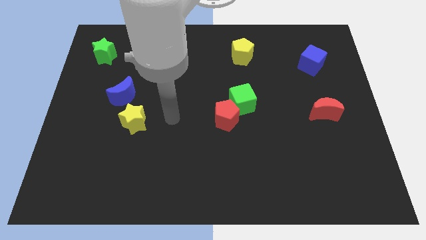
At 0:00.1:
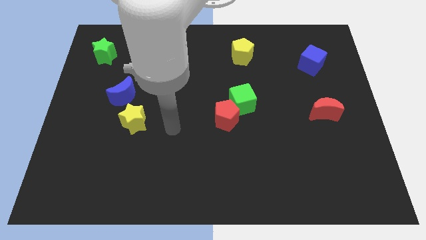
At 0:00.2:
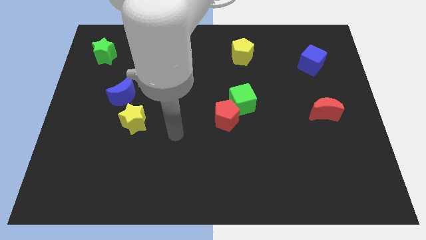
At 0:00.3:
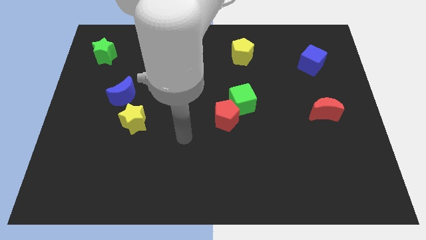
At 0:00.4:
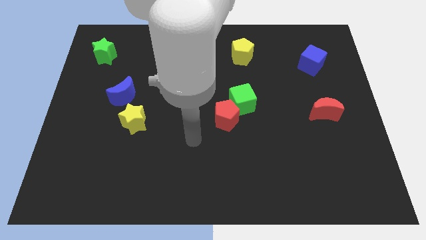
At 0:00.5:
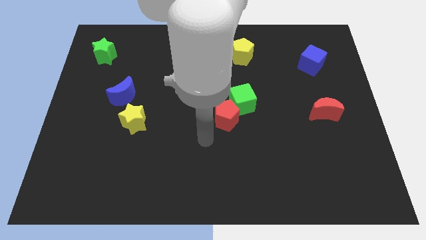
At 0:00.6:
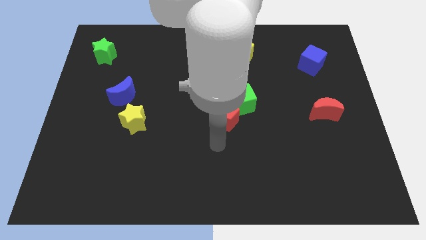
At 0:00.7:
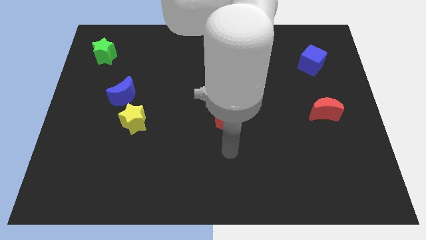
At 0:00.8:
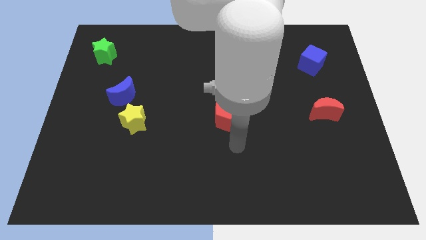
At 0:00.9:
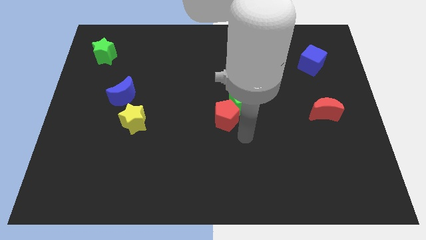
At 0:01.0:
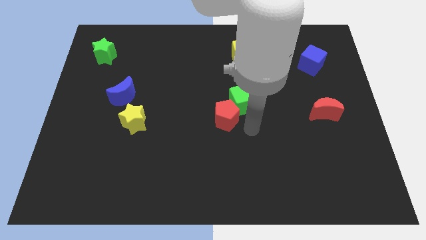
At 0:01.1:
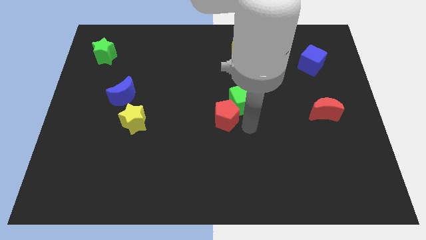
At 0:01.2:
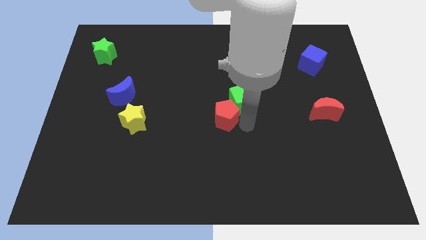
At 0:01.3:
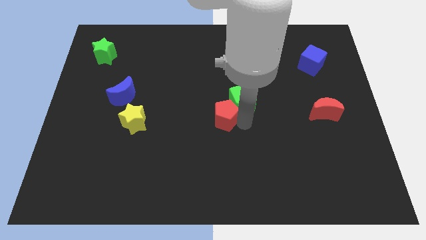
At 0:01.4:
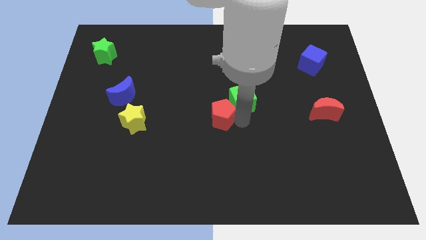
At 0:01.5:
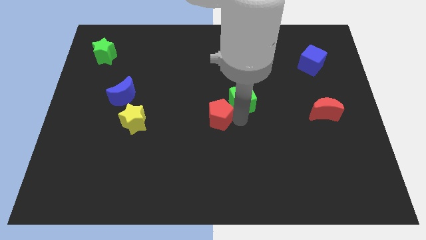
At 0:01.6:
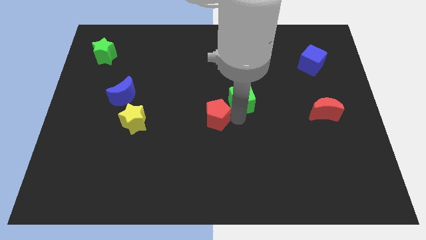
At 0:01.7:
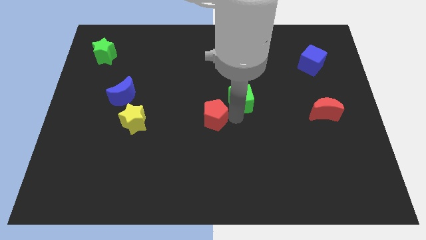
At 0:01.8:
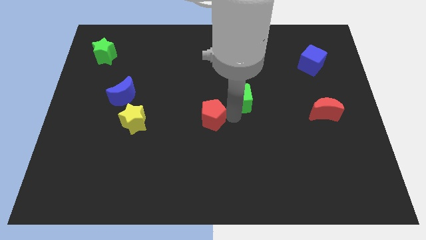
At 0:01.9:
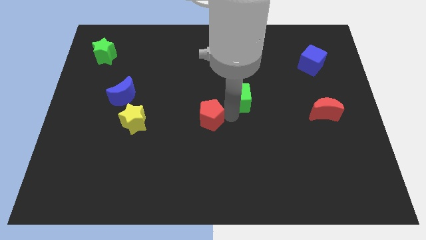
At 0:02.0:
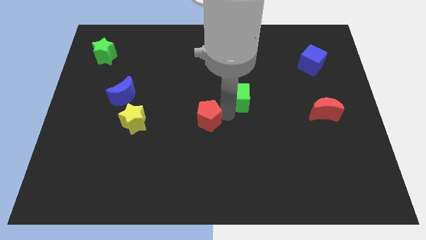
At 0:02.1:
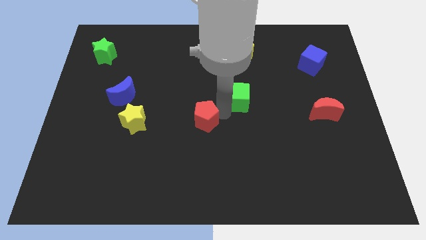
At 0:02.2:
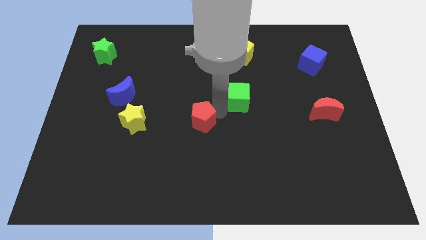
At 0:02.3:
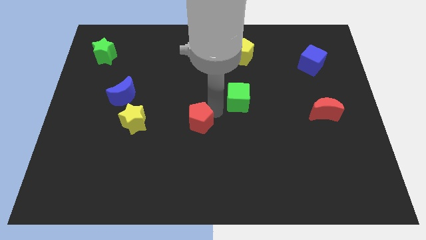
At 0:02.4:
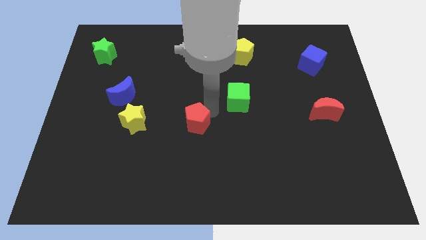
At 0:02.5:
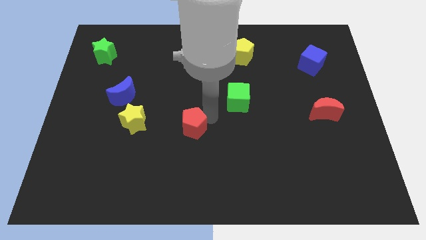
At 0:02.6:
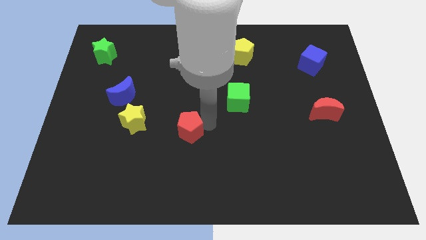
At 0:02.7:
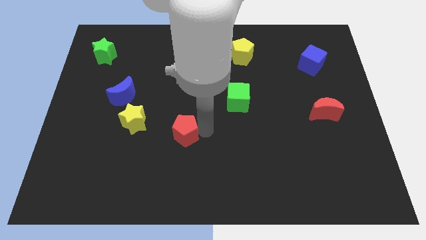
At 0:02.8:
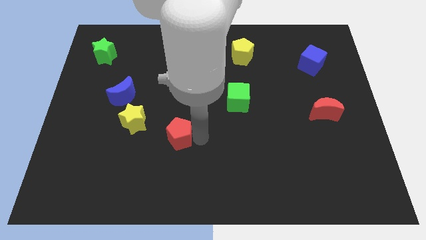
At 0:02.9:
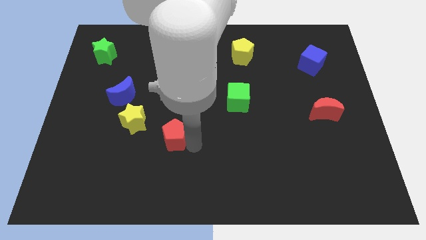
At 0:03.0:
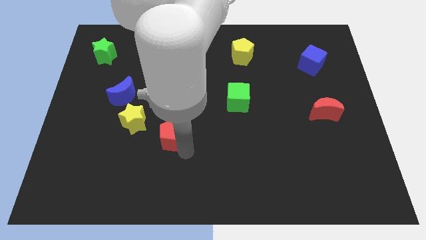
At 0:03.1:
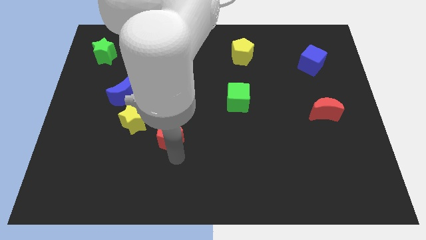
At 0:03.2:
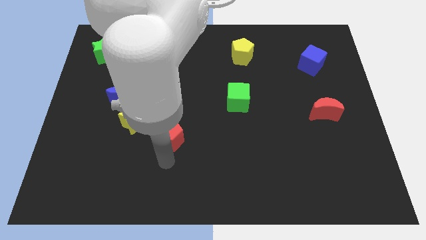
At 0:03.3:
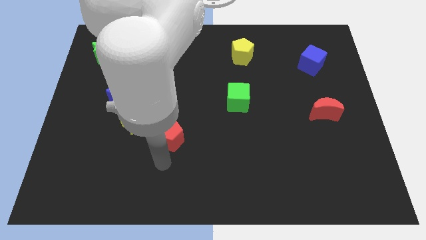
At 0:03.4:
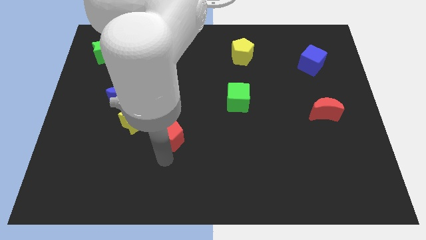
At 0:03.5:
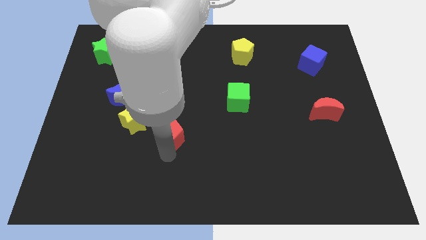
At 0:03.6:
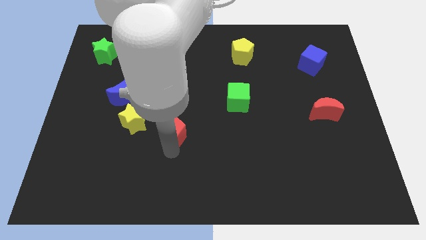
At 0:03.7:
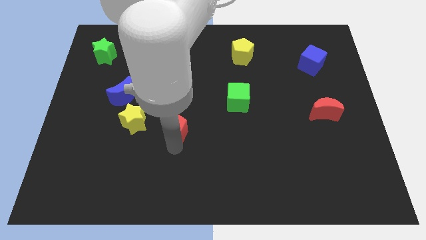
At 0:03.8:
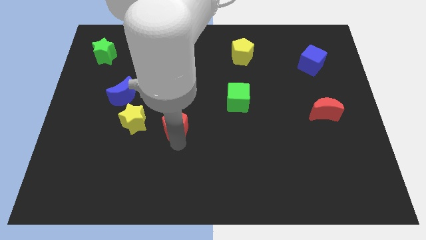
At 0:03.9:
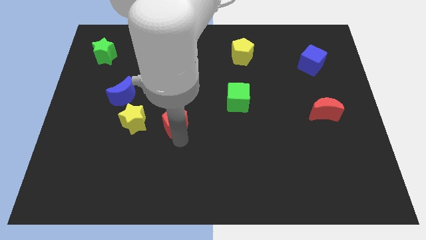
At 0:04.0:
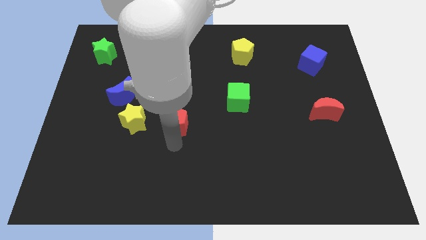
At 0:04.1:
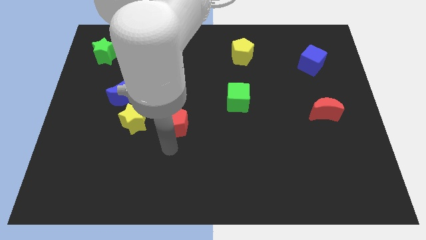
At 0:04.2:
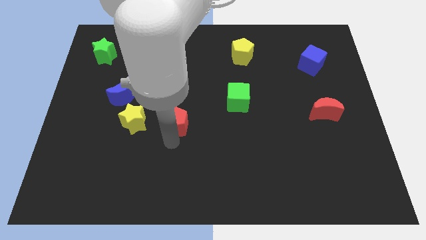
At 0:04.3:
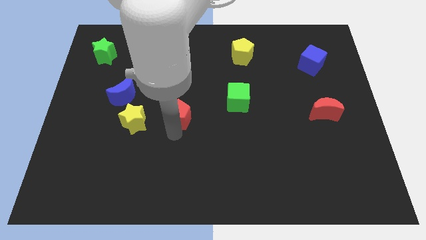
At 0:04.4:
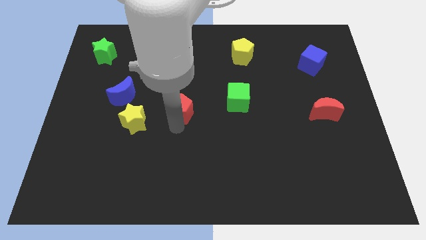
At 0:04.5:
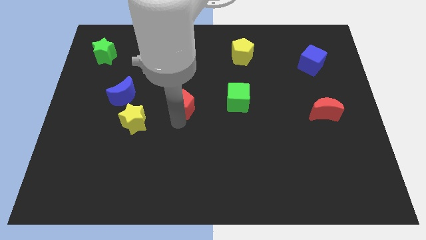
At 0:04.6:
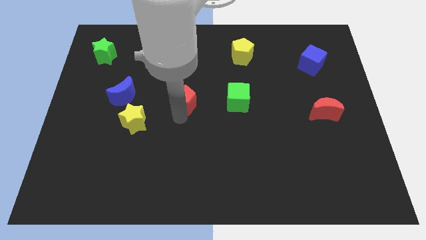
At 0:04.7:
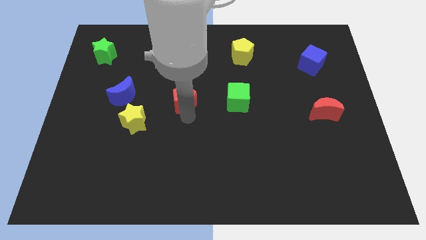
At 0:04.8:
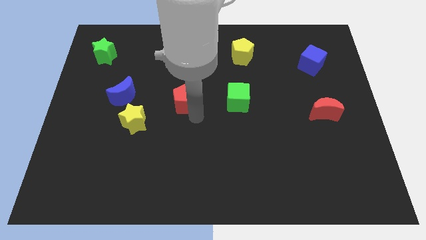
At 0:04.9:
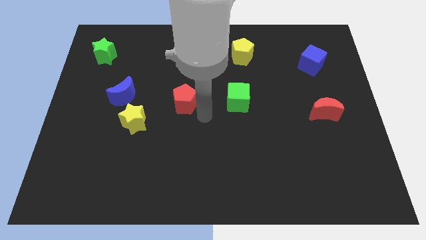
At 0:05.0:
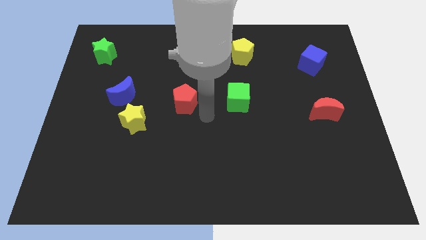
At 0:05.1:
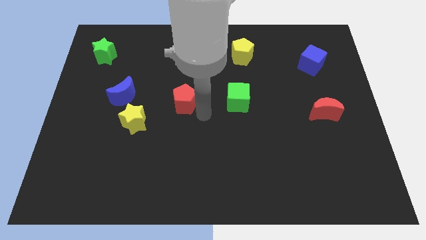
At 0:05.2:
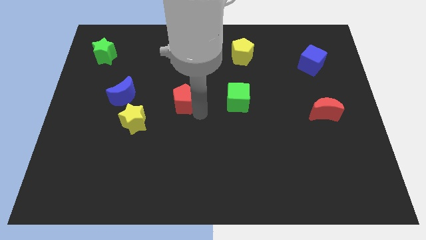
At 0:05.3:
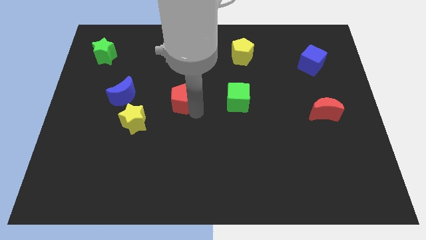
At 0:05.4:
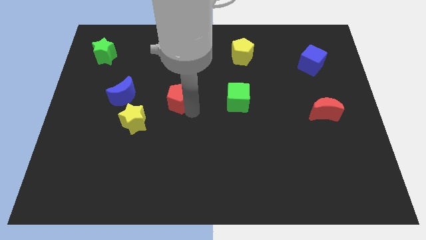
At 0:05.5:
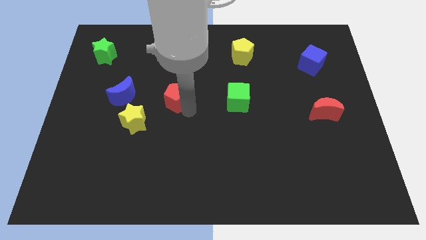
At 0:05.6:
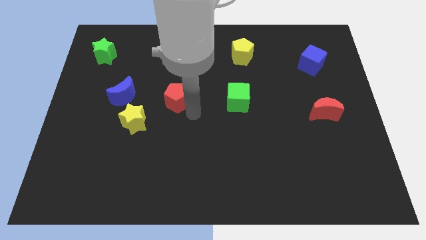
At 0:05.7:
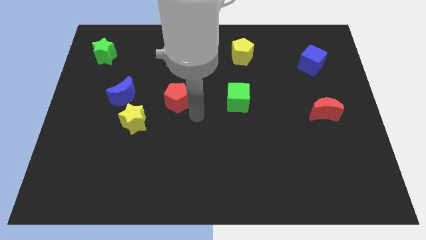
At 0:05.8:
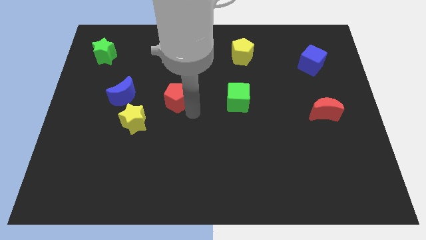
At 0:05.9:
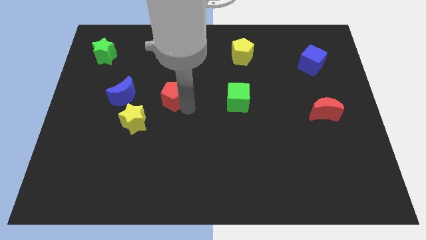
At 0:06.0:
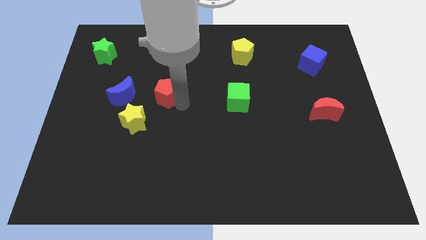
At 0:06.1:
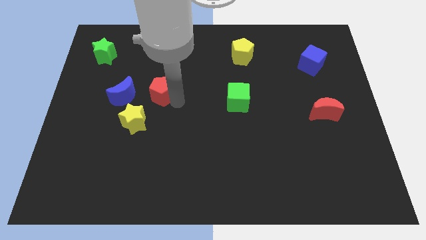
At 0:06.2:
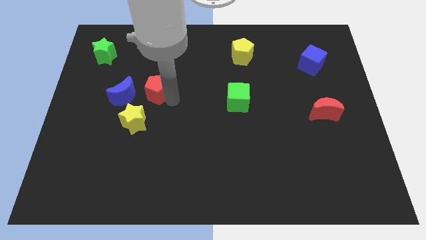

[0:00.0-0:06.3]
move the red pentagon to the top right side of the blue moon

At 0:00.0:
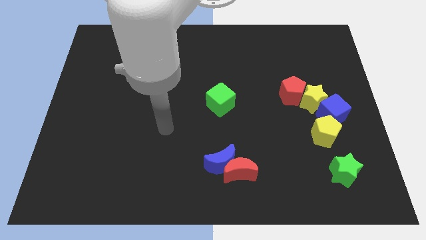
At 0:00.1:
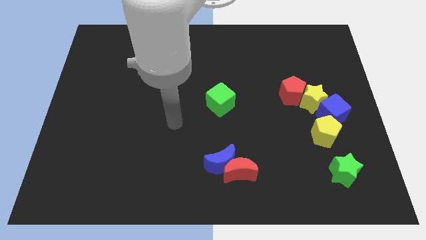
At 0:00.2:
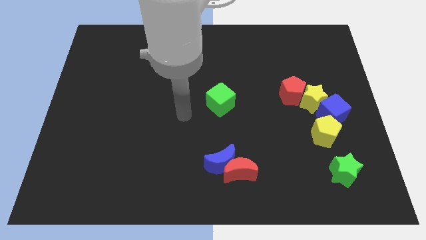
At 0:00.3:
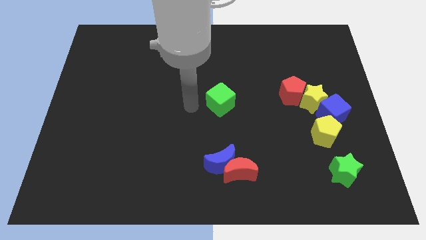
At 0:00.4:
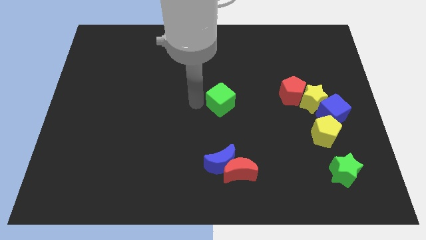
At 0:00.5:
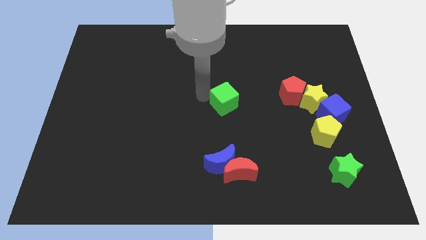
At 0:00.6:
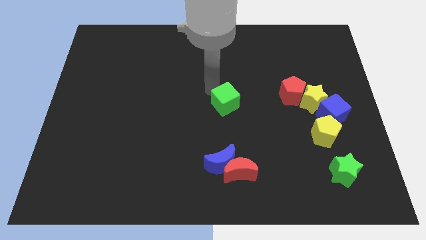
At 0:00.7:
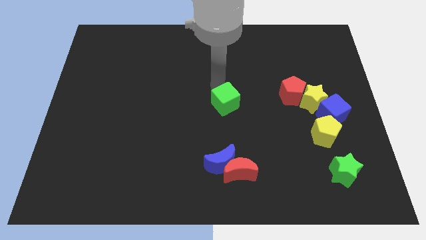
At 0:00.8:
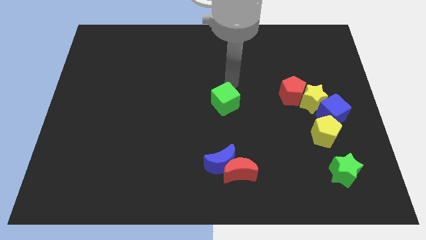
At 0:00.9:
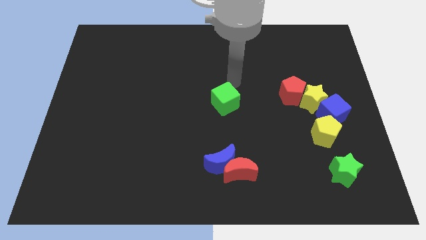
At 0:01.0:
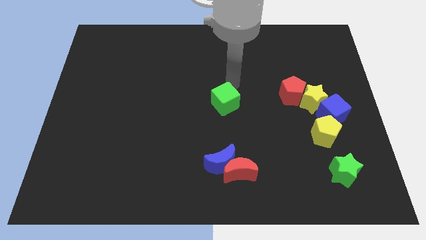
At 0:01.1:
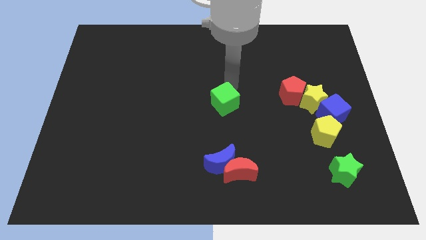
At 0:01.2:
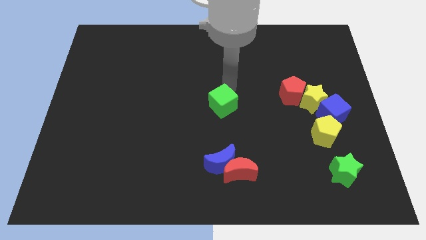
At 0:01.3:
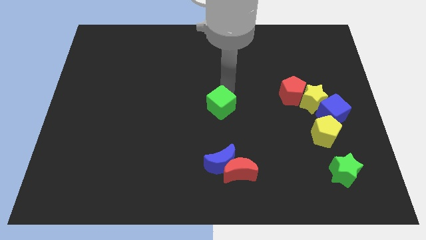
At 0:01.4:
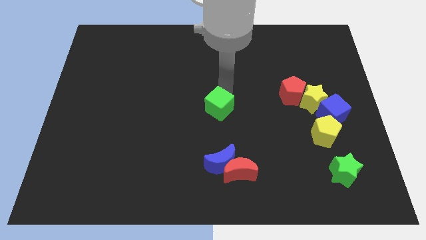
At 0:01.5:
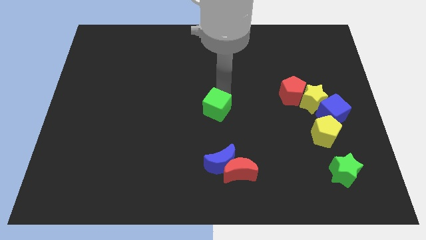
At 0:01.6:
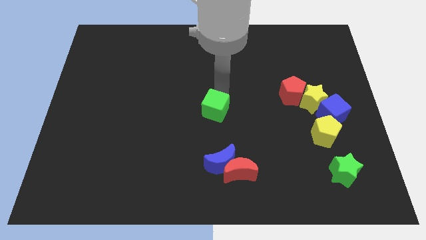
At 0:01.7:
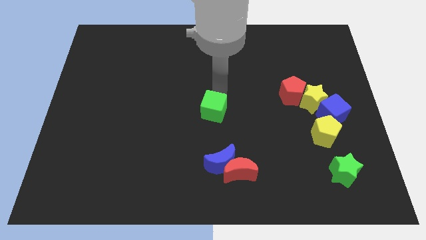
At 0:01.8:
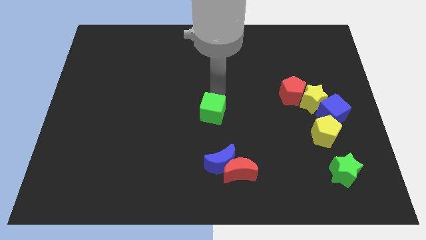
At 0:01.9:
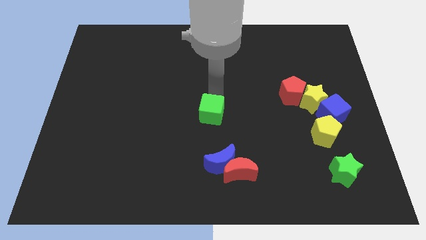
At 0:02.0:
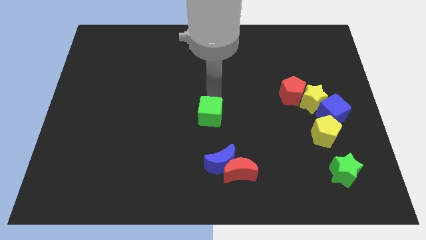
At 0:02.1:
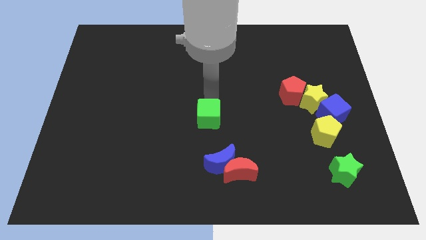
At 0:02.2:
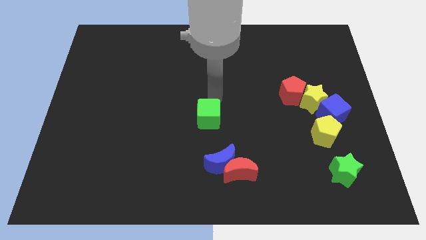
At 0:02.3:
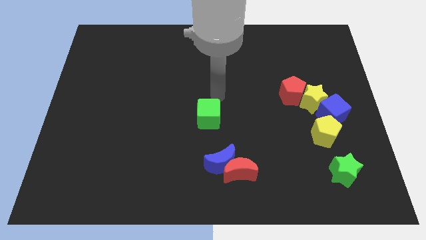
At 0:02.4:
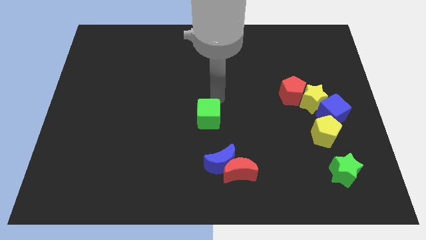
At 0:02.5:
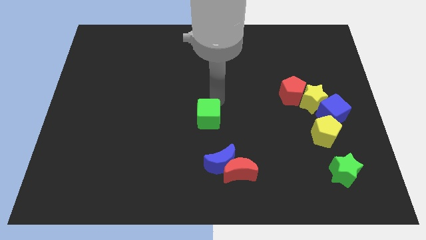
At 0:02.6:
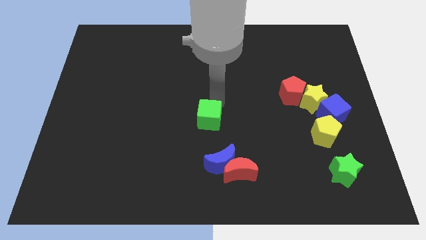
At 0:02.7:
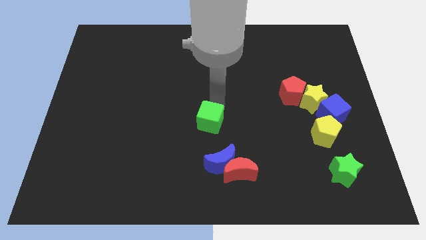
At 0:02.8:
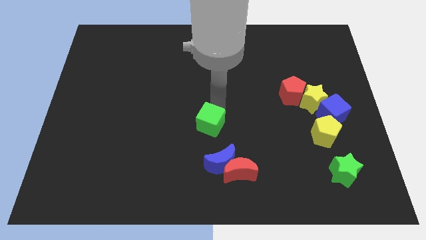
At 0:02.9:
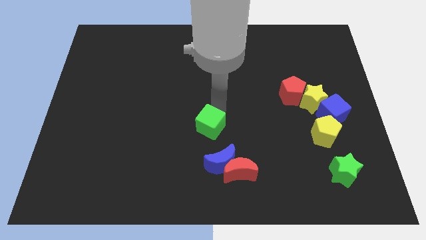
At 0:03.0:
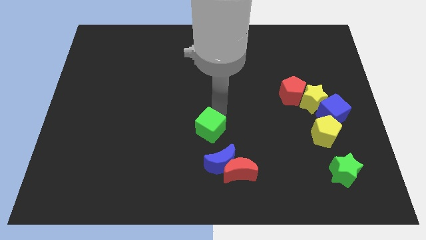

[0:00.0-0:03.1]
slide the green cube diagonally up and to the left of the blue moon
